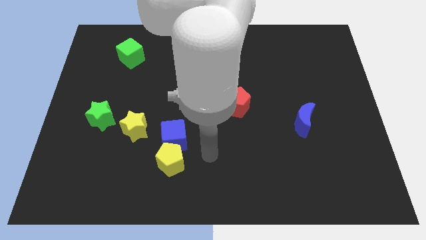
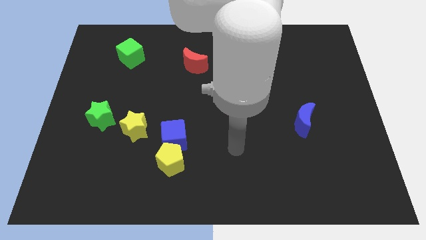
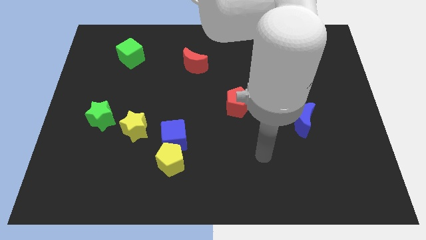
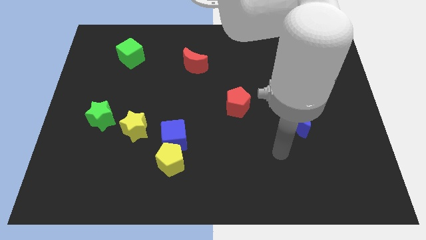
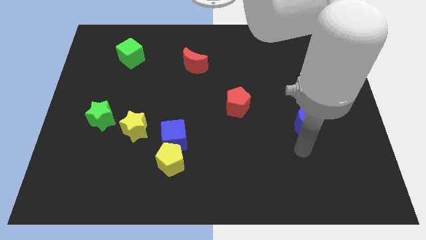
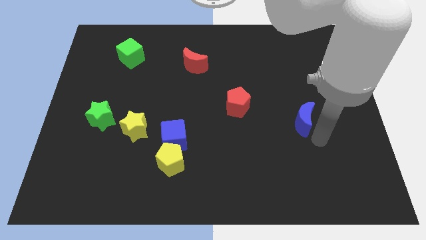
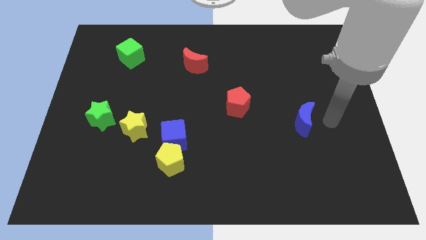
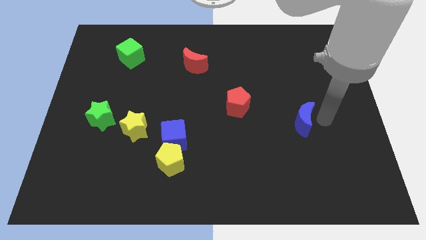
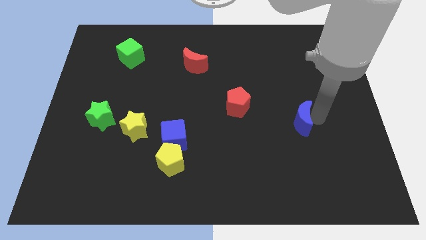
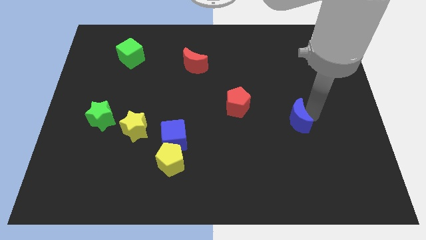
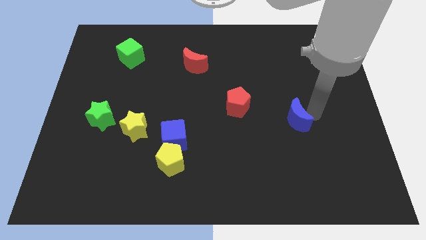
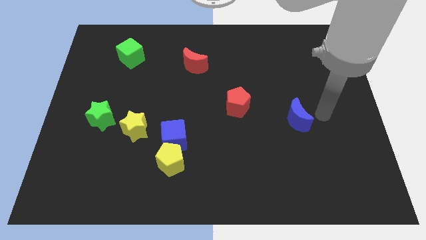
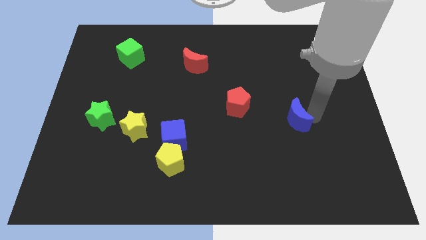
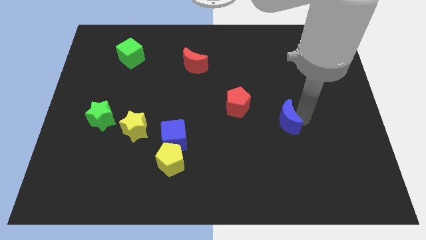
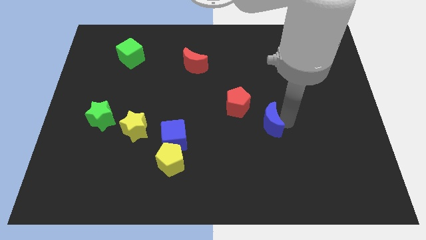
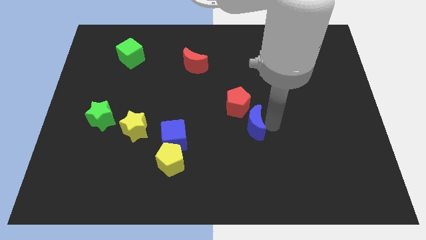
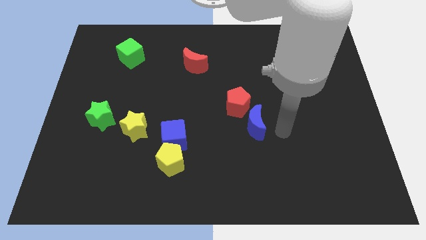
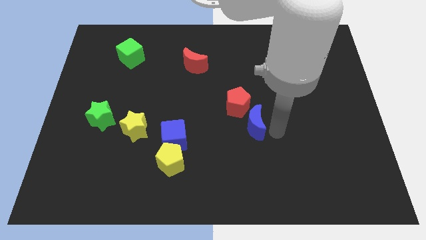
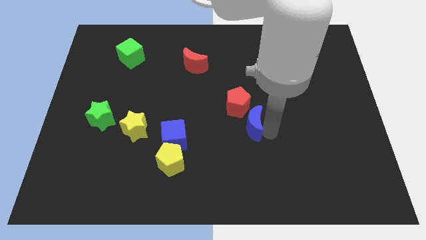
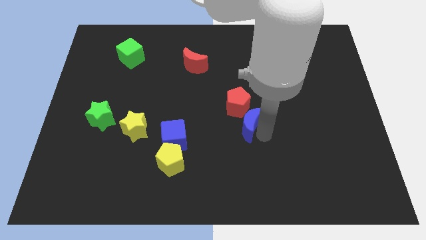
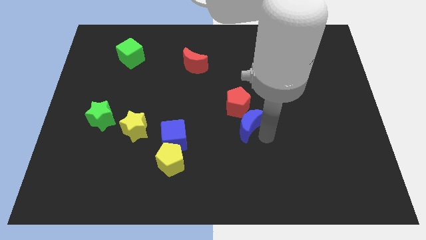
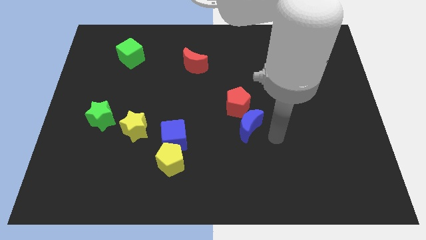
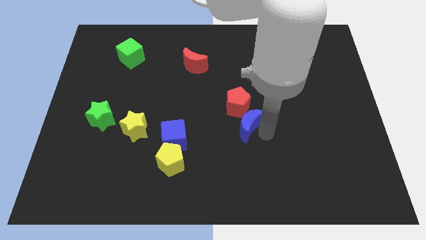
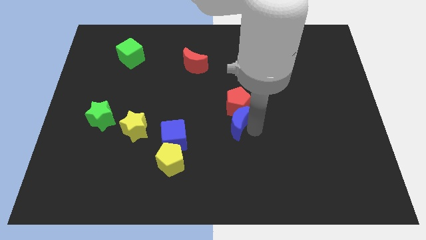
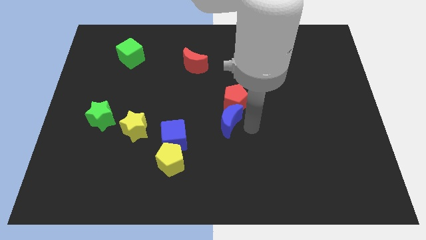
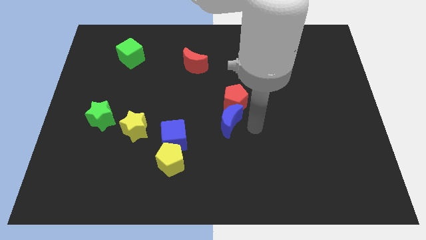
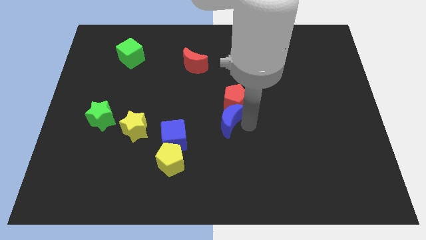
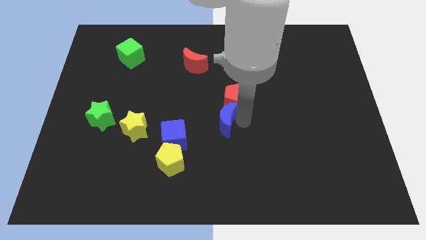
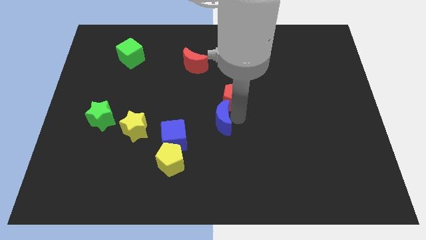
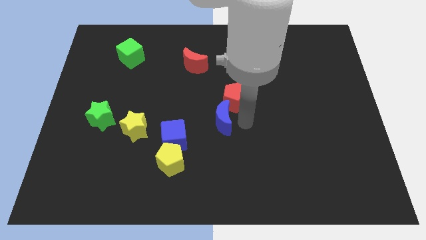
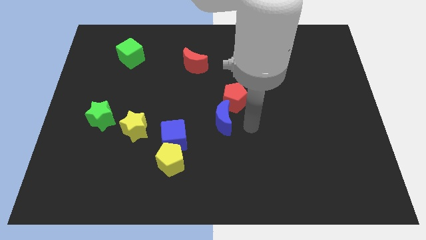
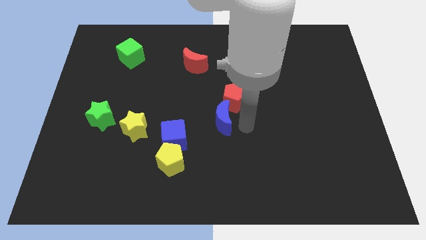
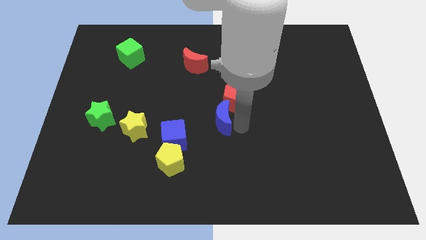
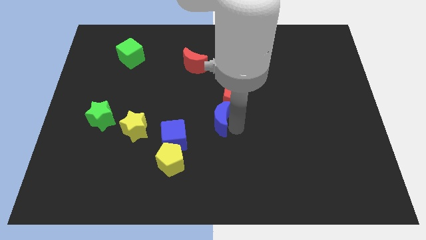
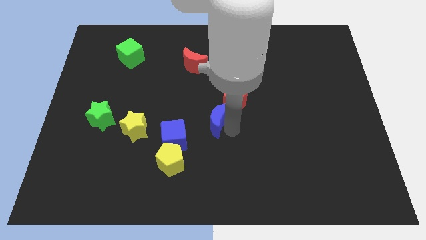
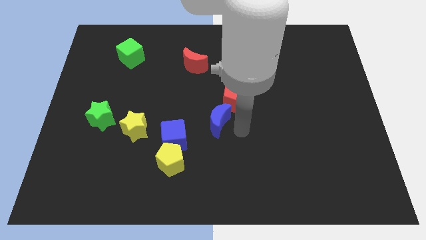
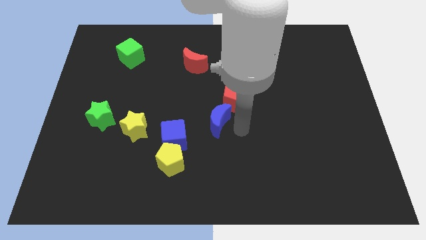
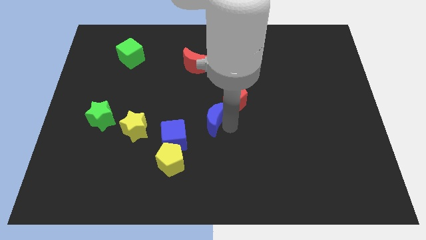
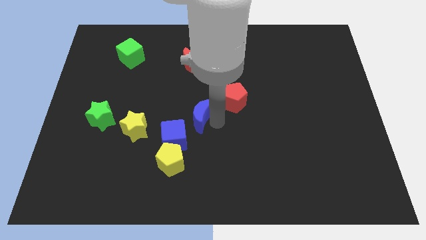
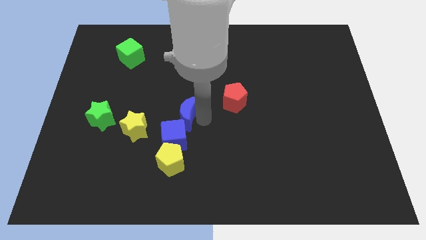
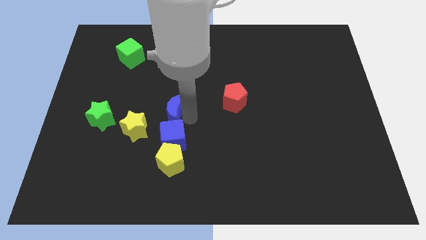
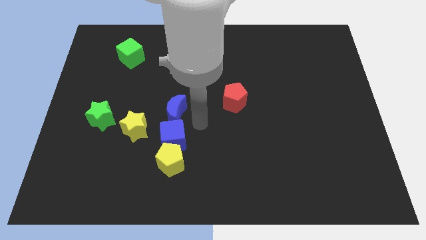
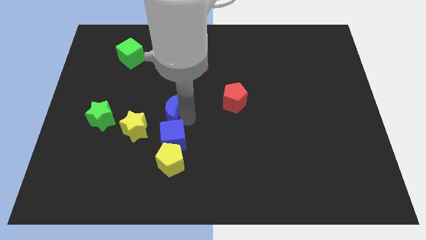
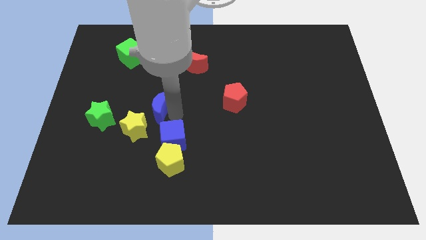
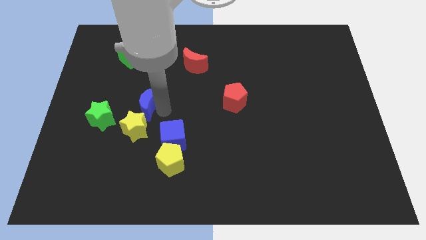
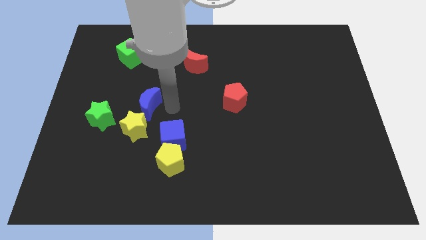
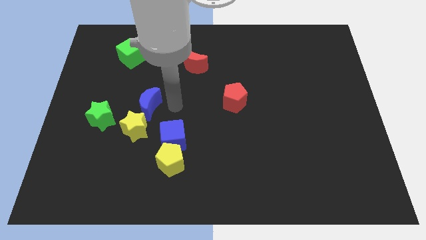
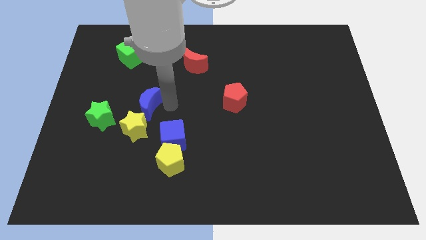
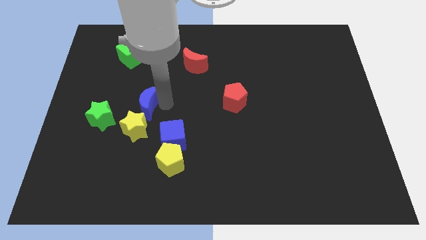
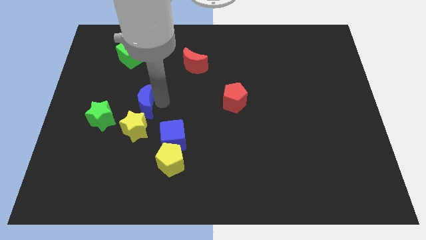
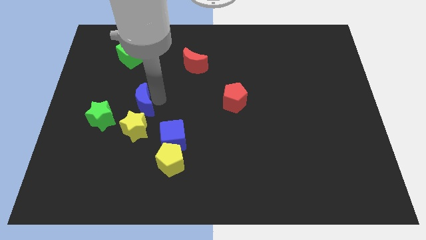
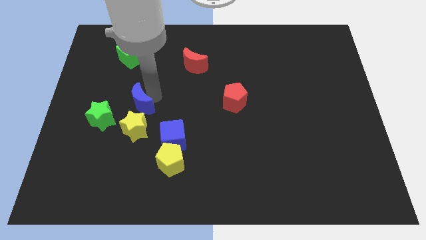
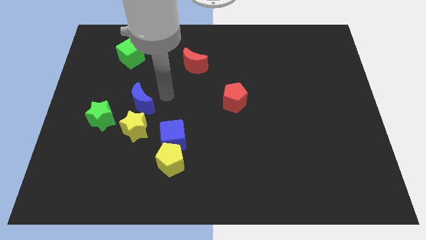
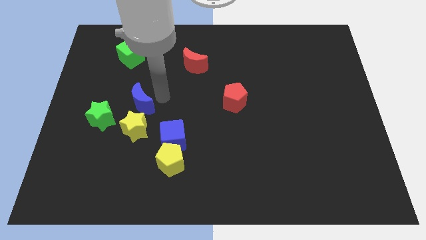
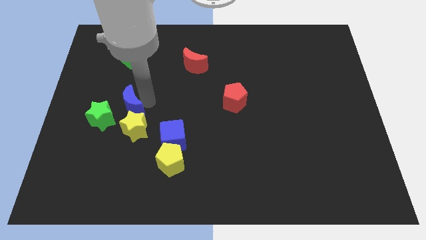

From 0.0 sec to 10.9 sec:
push the blue moon to the top left side of the yellow star

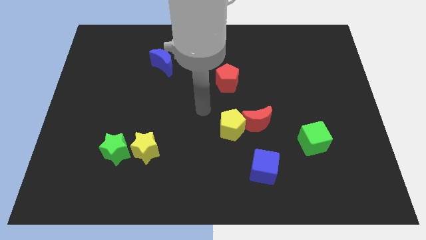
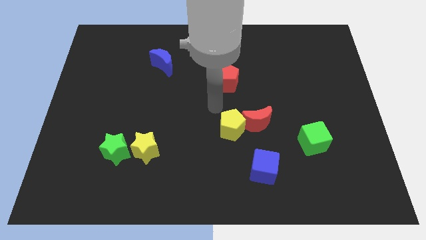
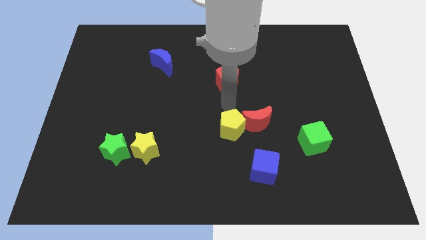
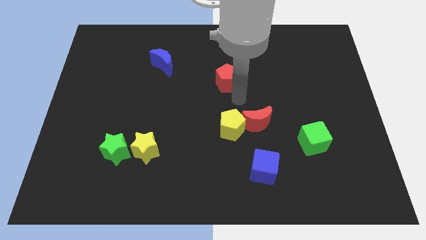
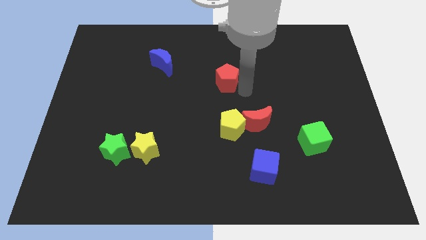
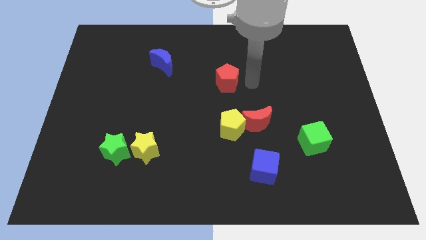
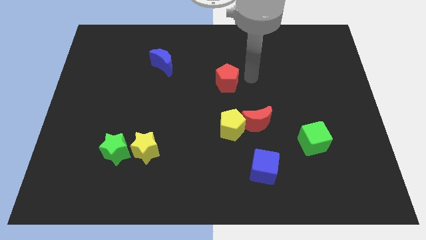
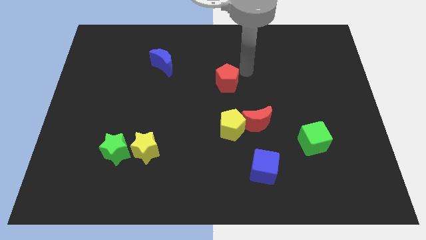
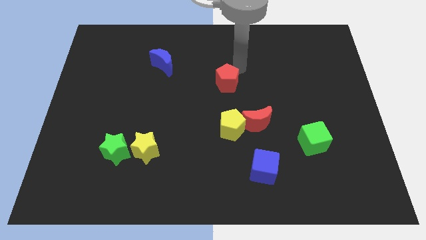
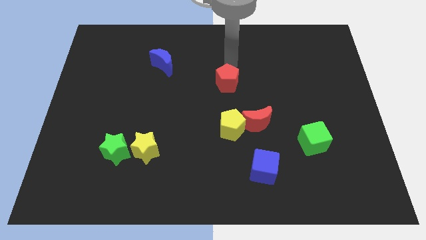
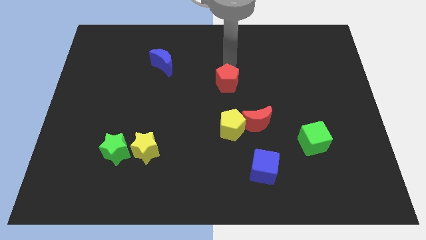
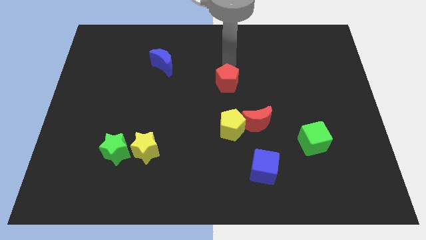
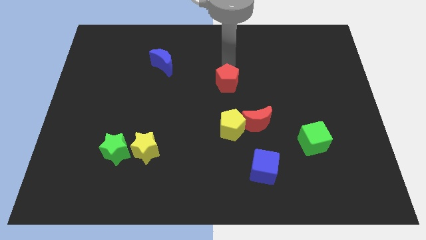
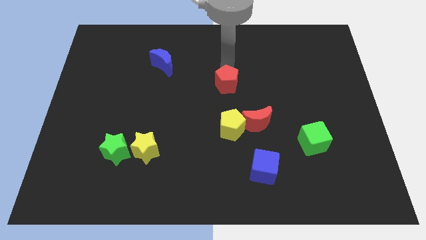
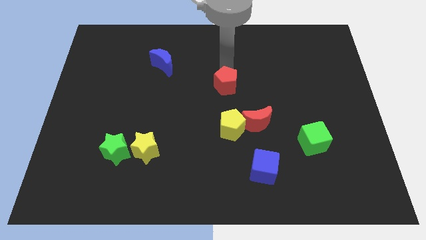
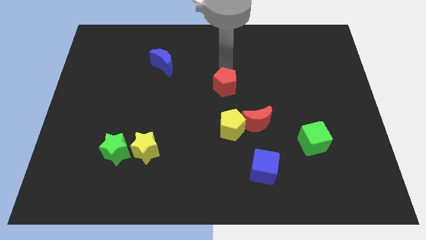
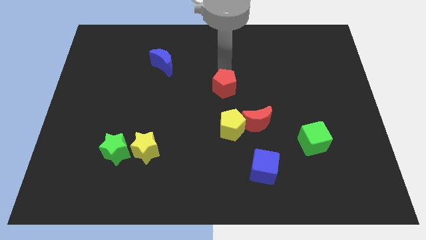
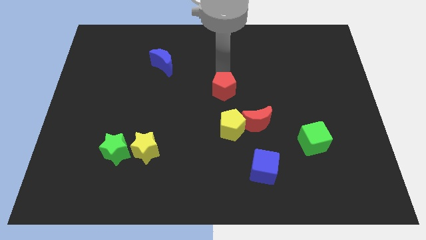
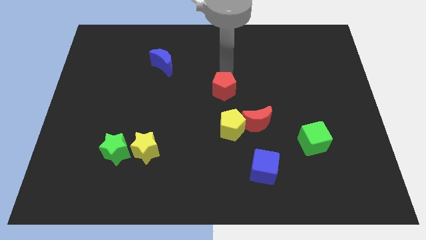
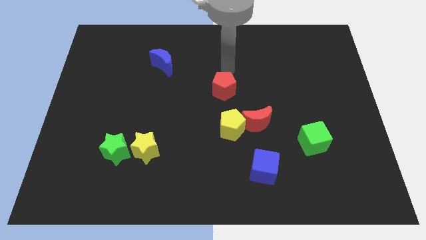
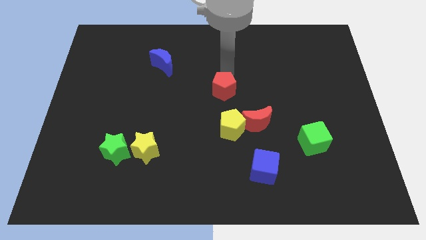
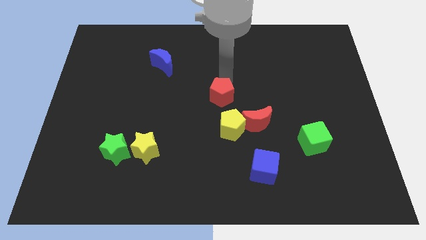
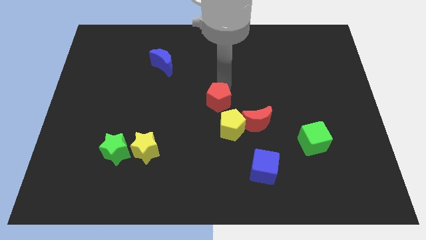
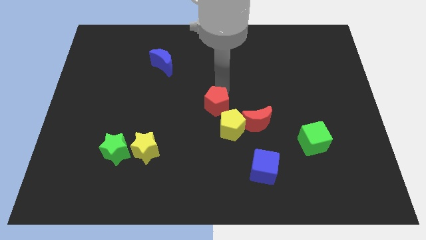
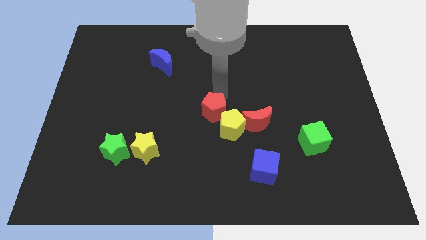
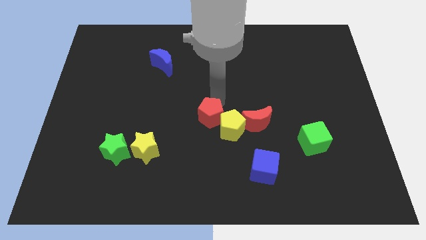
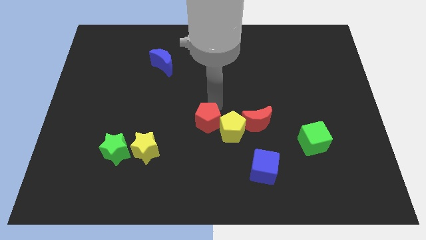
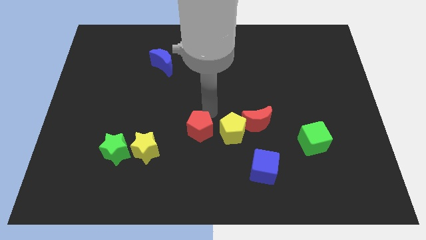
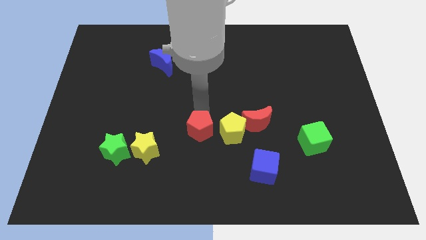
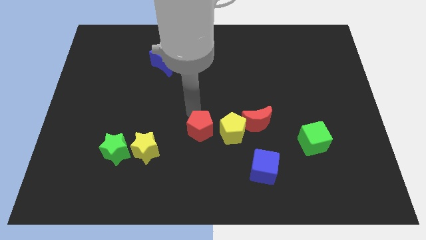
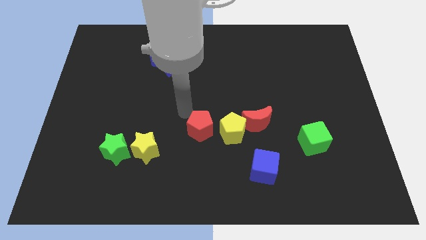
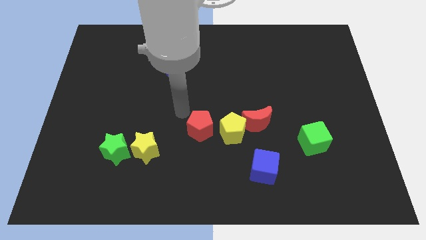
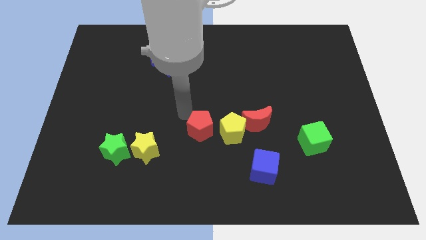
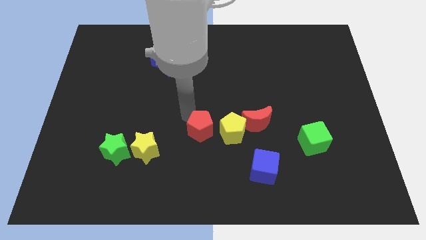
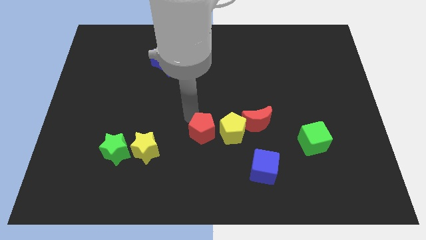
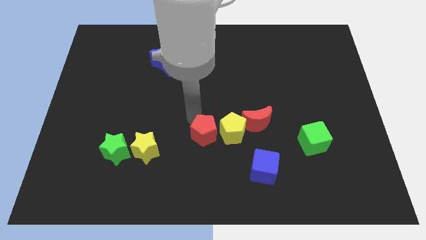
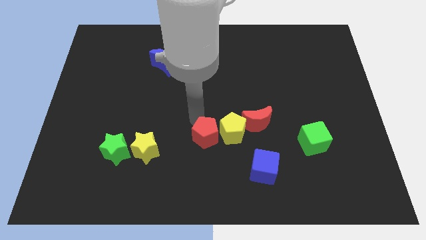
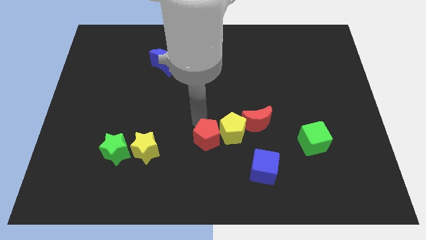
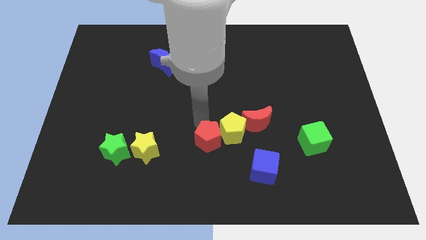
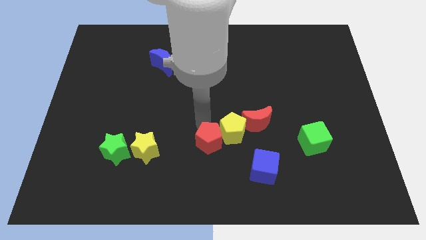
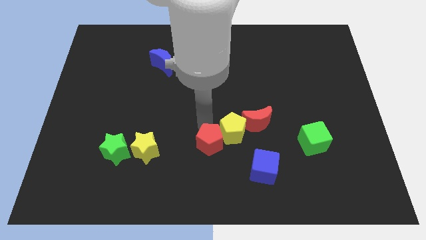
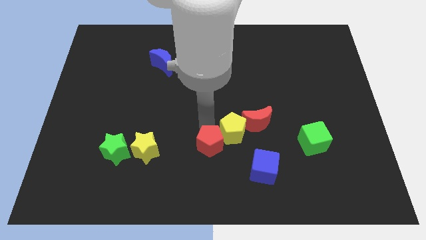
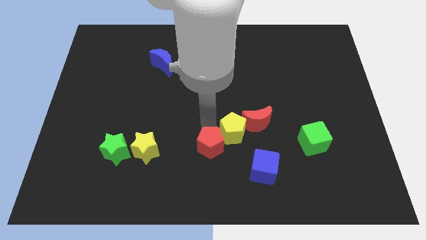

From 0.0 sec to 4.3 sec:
push the red pentagon to the bottom of the yellow pentagon
